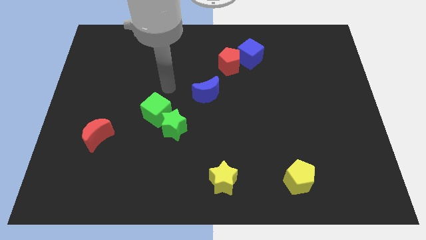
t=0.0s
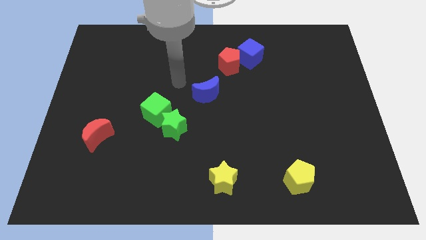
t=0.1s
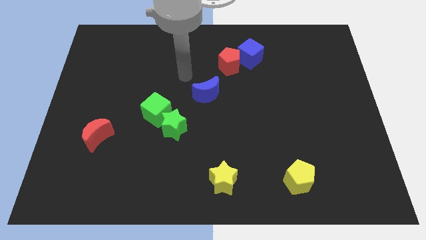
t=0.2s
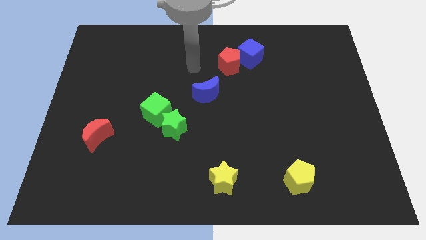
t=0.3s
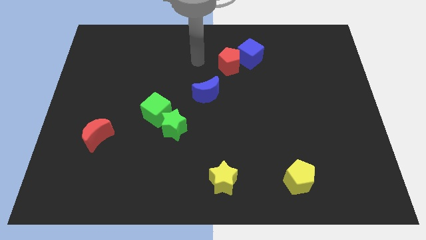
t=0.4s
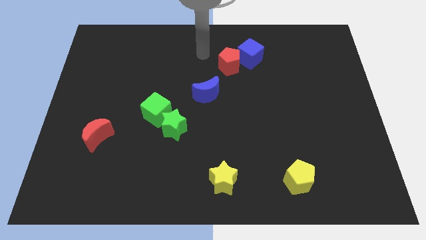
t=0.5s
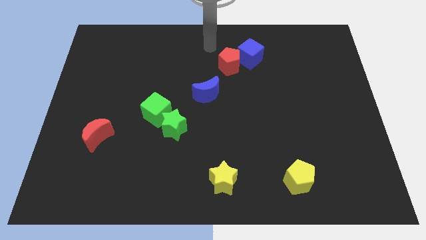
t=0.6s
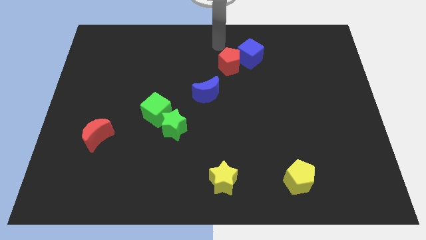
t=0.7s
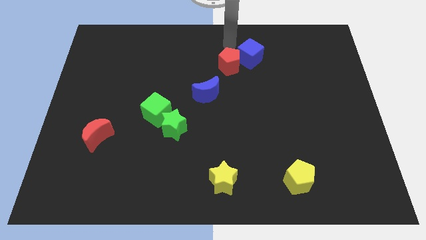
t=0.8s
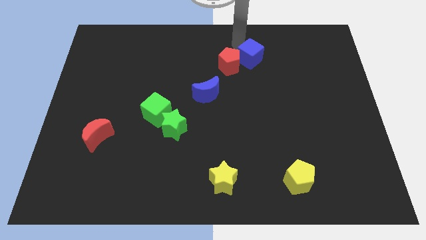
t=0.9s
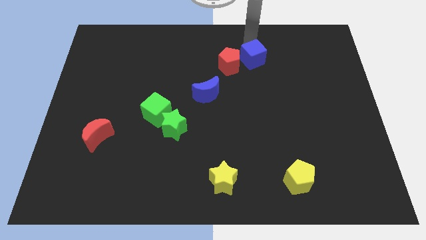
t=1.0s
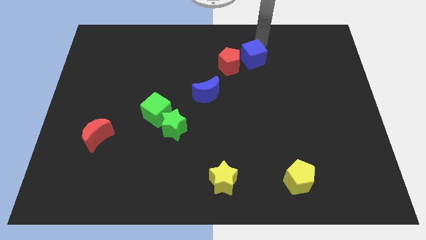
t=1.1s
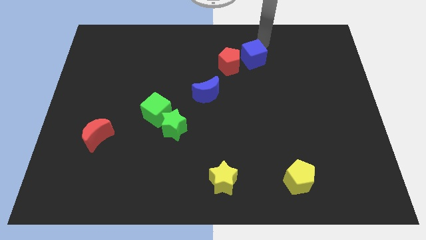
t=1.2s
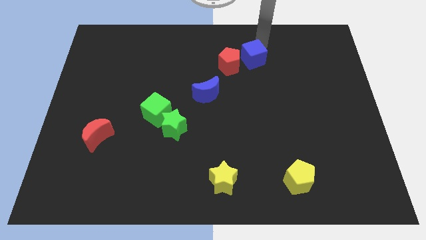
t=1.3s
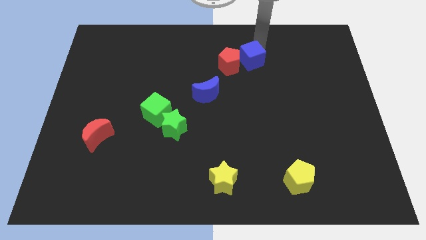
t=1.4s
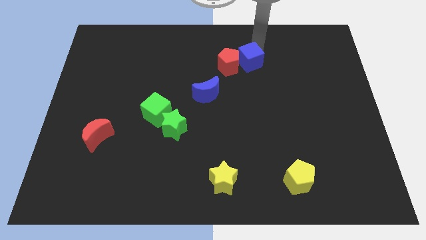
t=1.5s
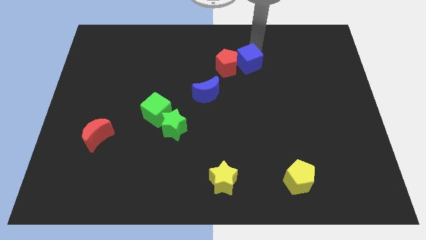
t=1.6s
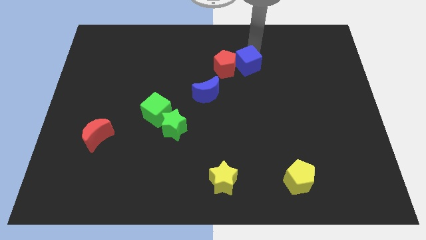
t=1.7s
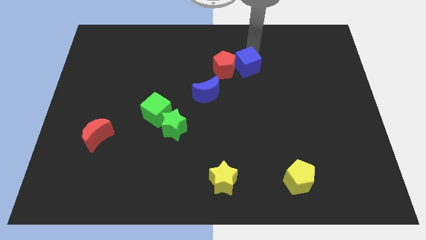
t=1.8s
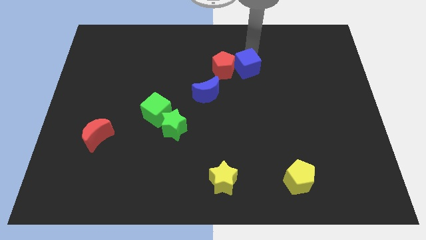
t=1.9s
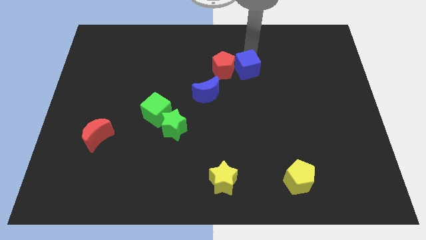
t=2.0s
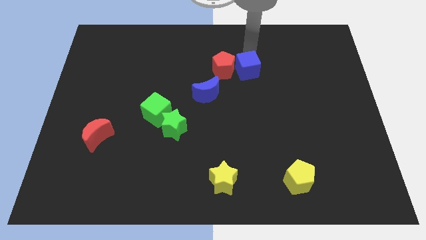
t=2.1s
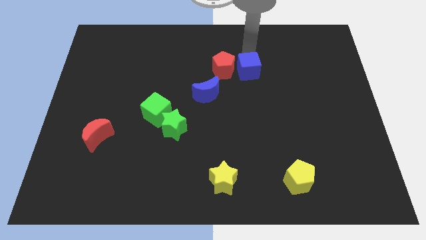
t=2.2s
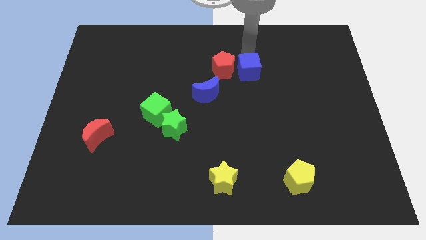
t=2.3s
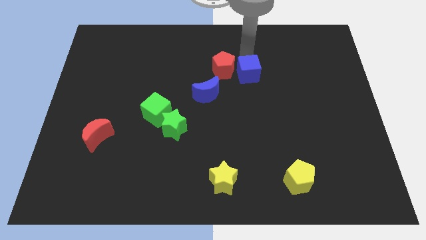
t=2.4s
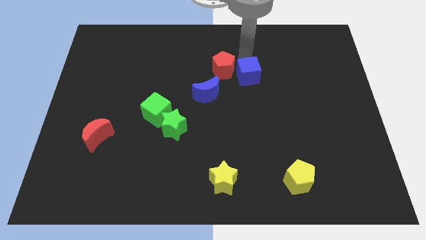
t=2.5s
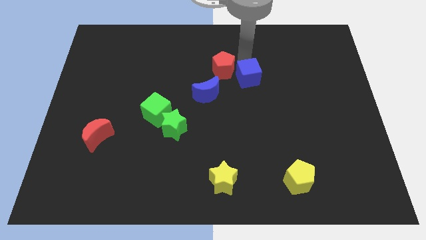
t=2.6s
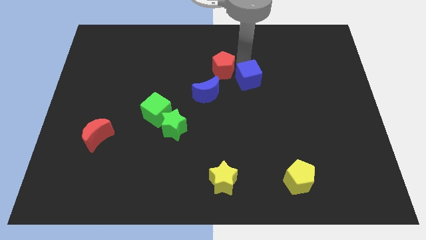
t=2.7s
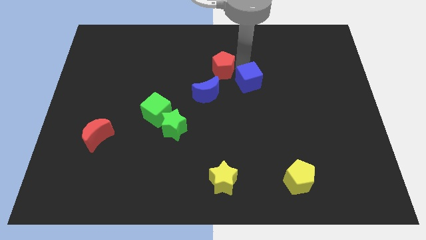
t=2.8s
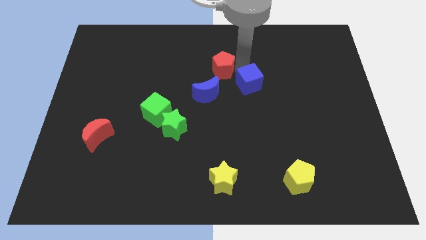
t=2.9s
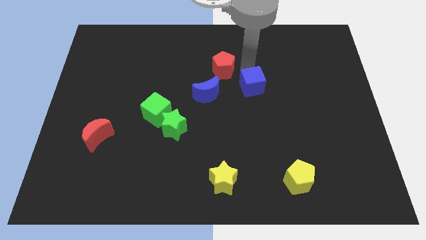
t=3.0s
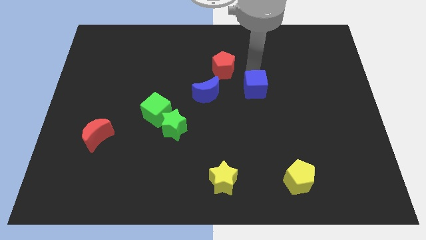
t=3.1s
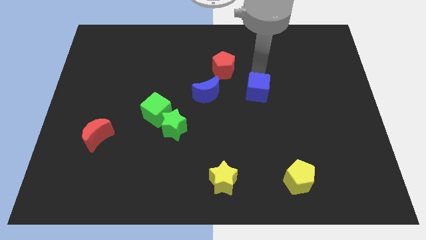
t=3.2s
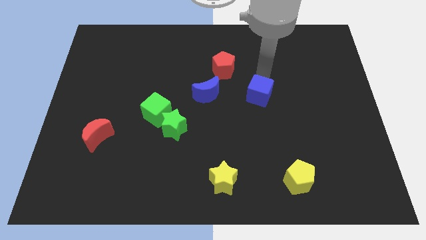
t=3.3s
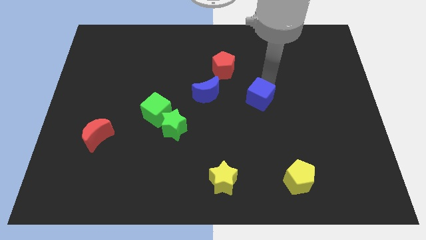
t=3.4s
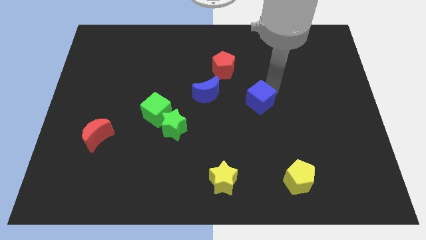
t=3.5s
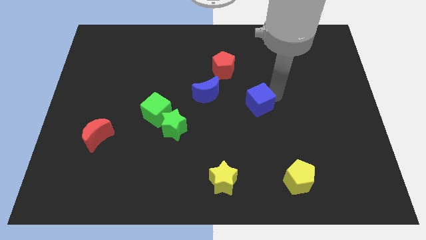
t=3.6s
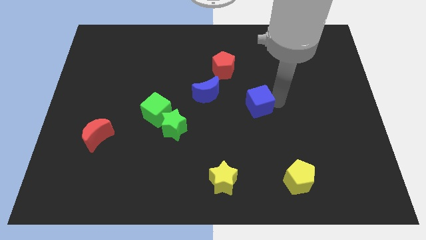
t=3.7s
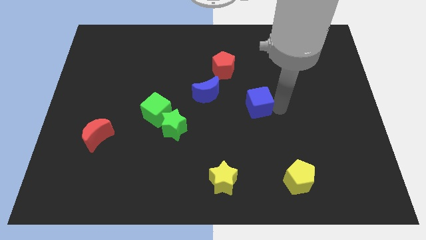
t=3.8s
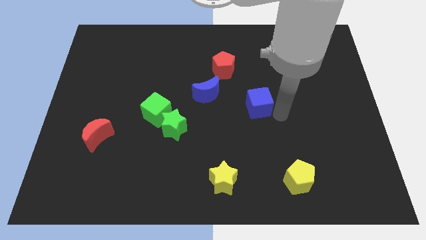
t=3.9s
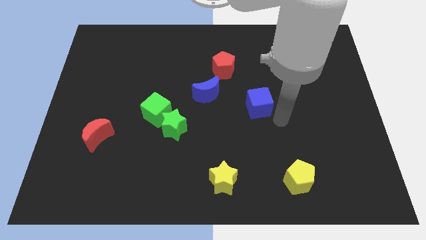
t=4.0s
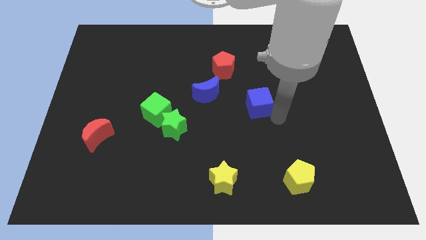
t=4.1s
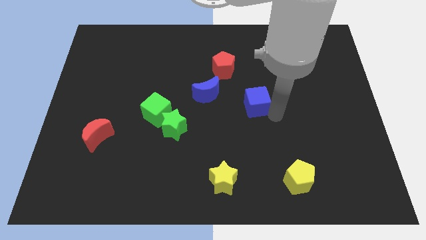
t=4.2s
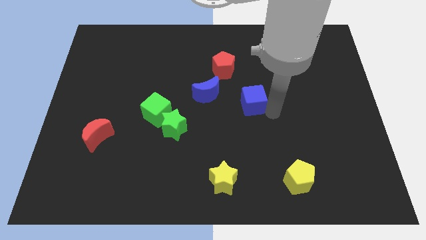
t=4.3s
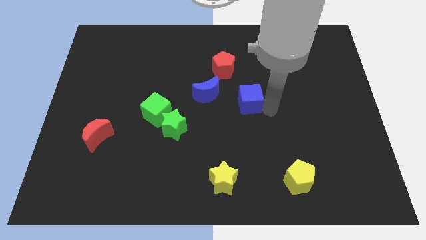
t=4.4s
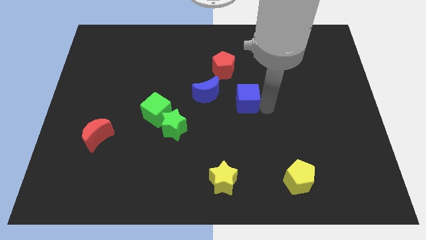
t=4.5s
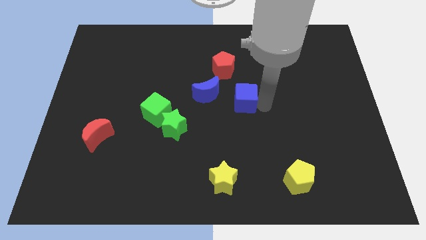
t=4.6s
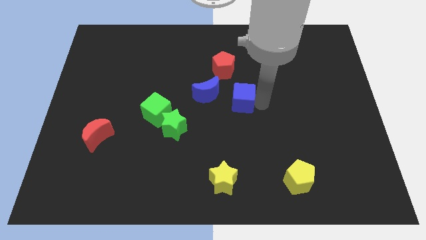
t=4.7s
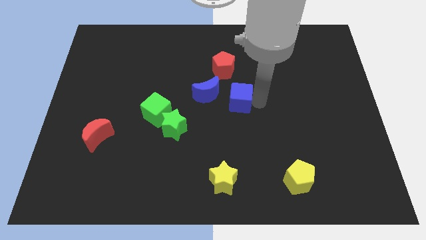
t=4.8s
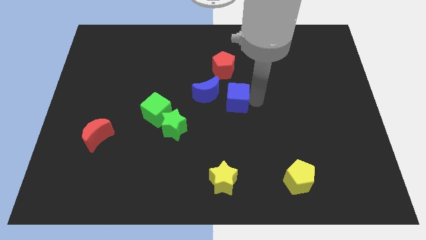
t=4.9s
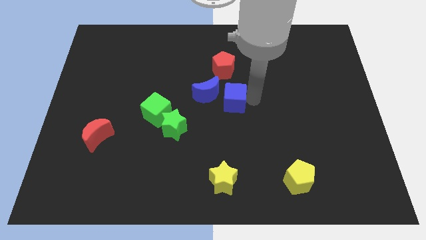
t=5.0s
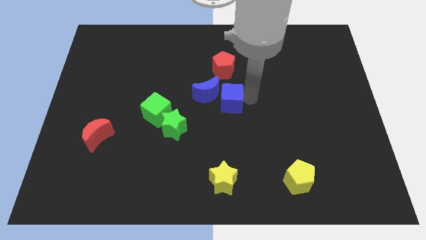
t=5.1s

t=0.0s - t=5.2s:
move the blue cube to the blue moon

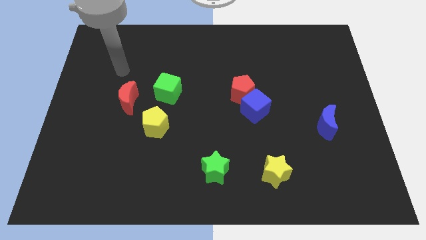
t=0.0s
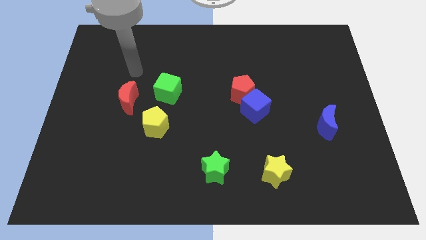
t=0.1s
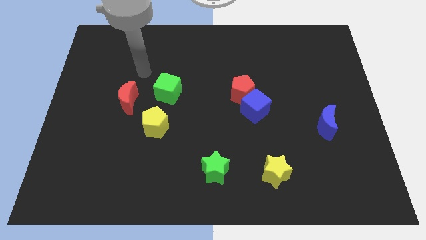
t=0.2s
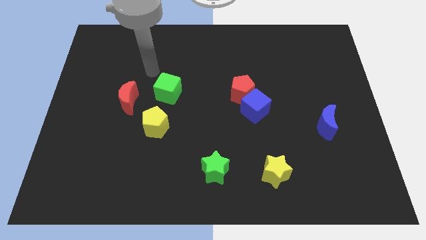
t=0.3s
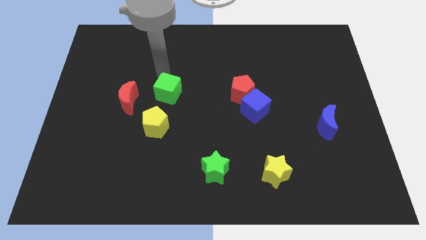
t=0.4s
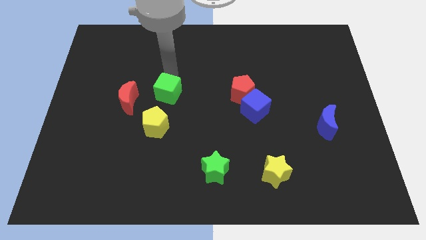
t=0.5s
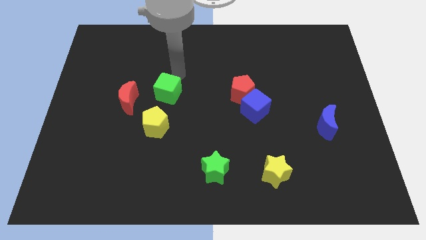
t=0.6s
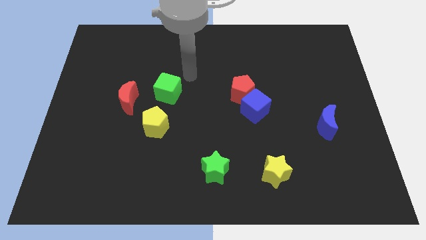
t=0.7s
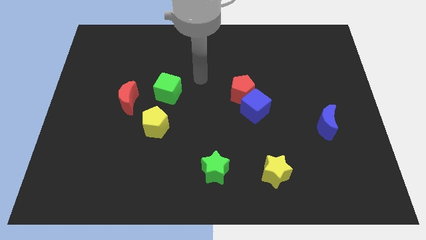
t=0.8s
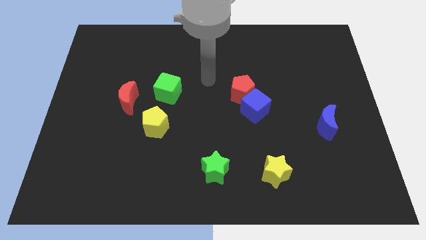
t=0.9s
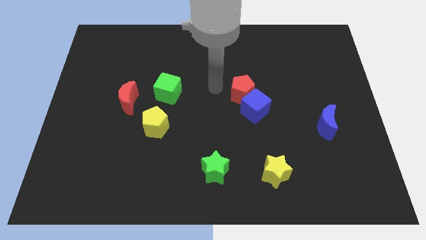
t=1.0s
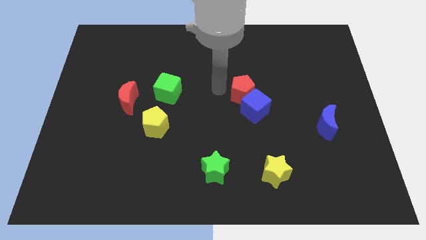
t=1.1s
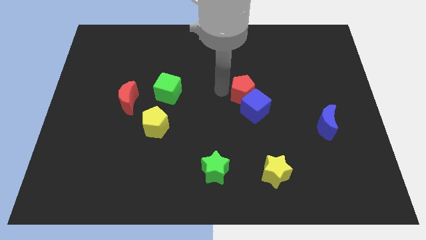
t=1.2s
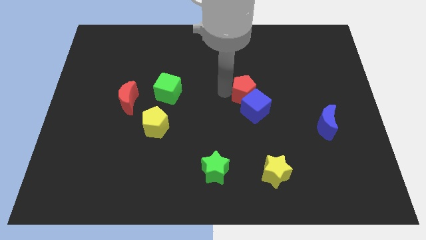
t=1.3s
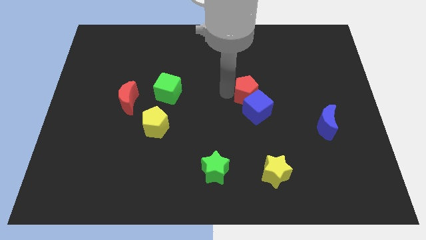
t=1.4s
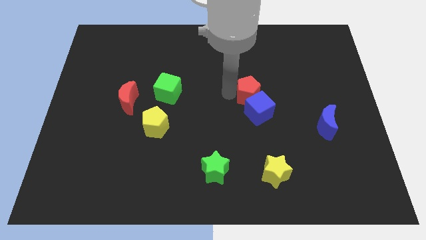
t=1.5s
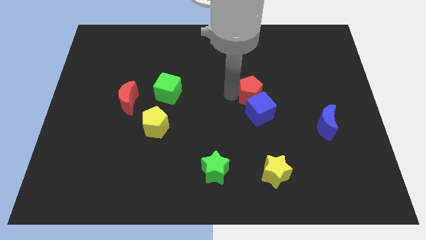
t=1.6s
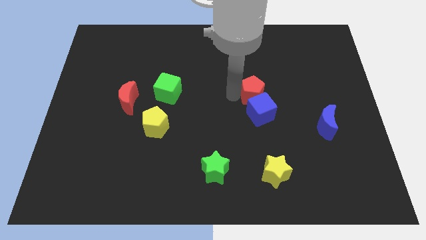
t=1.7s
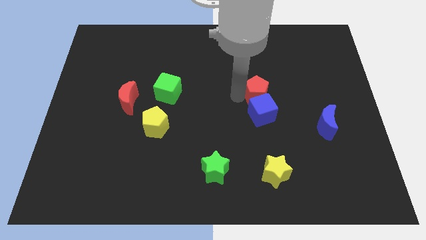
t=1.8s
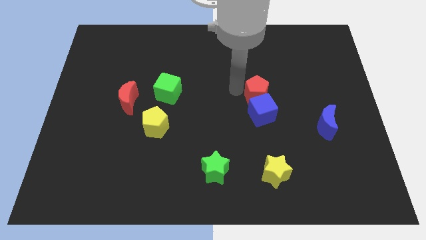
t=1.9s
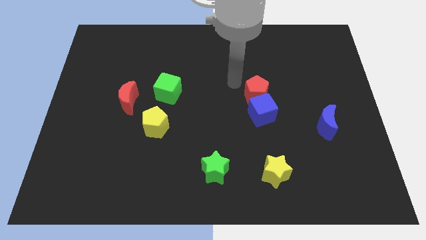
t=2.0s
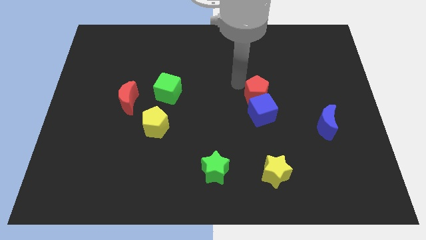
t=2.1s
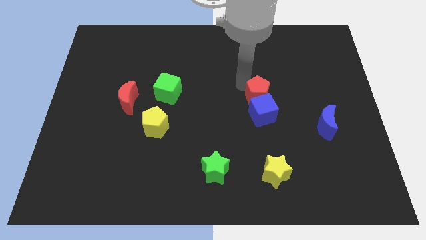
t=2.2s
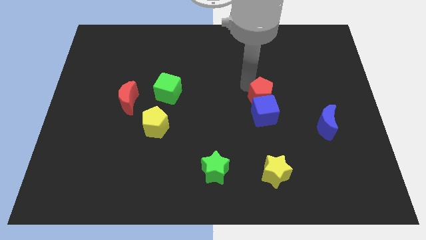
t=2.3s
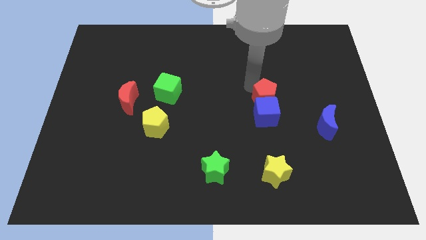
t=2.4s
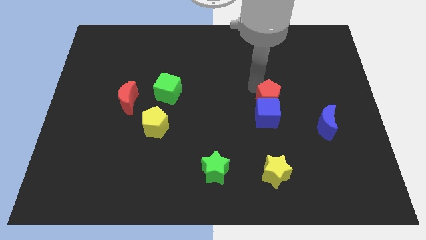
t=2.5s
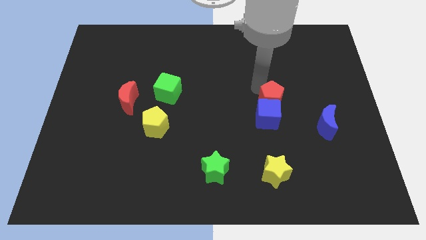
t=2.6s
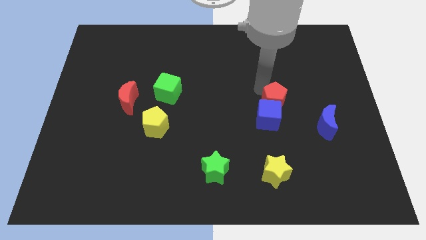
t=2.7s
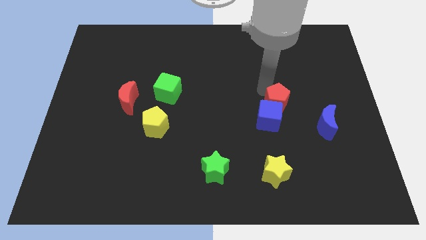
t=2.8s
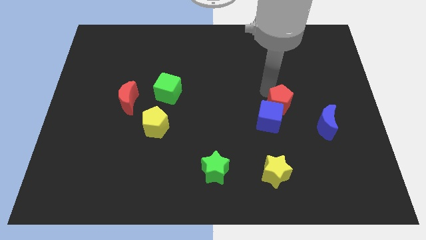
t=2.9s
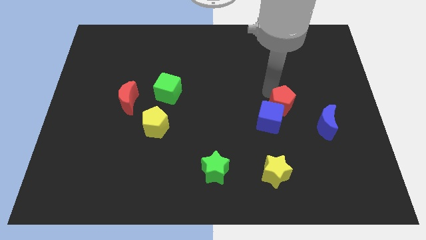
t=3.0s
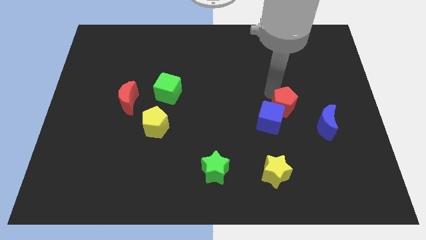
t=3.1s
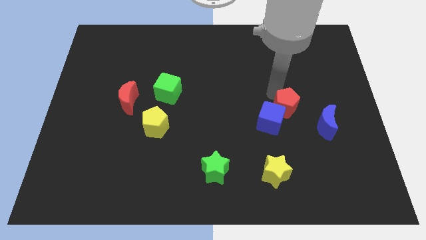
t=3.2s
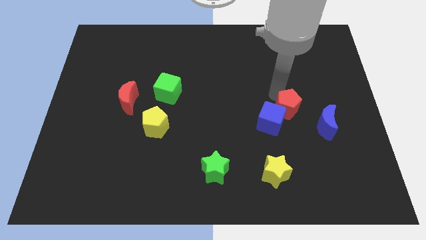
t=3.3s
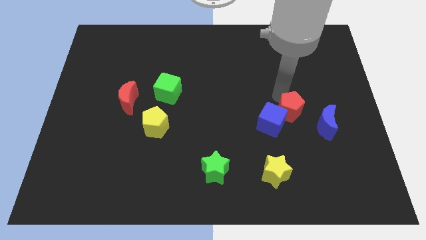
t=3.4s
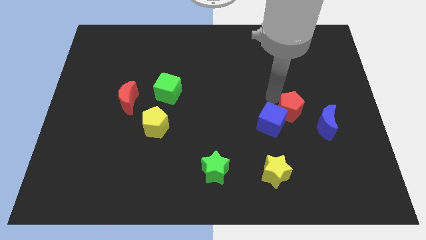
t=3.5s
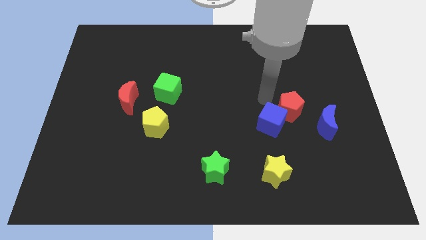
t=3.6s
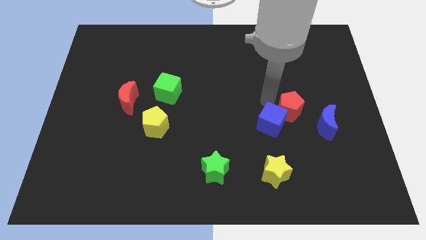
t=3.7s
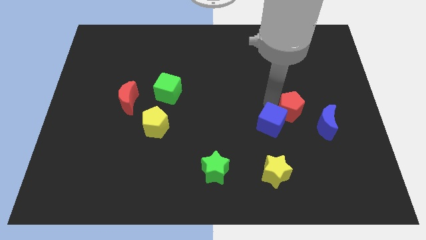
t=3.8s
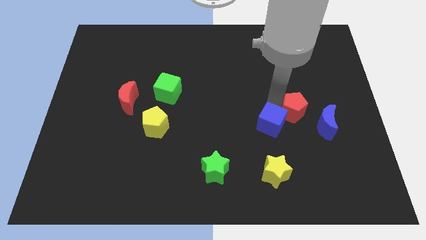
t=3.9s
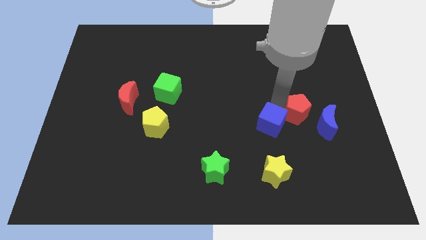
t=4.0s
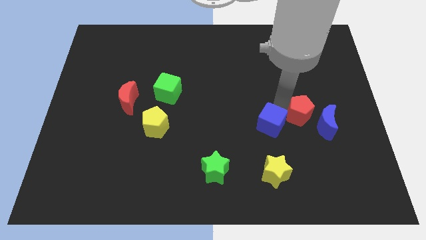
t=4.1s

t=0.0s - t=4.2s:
push the red pentagon close to the blue moon
